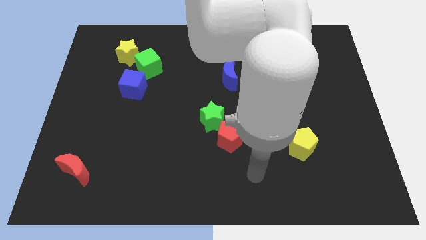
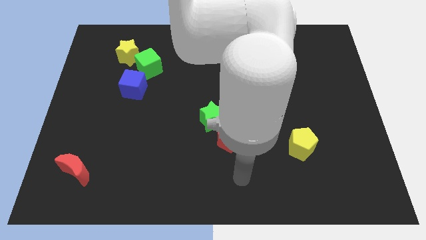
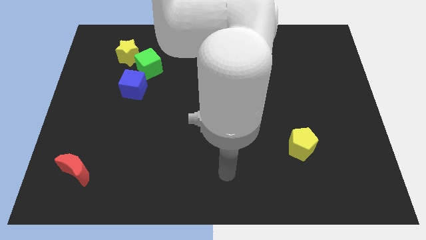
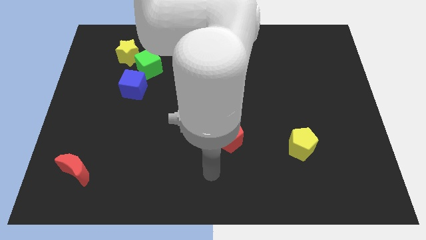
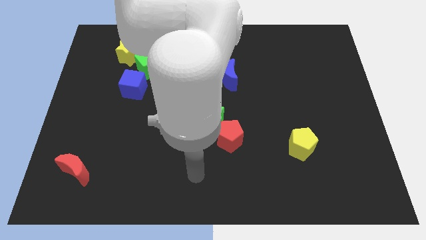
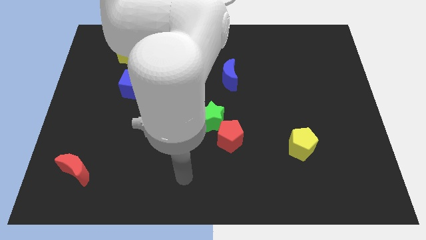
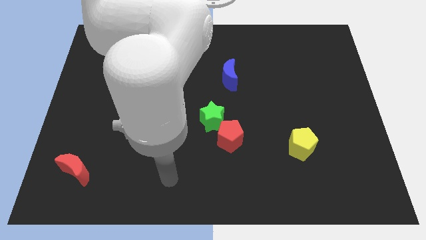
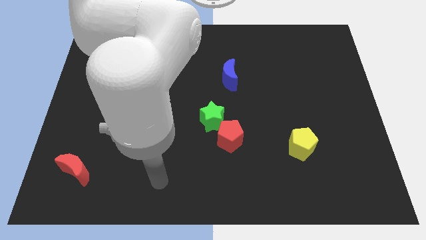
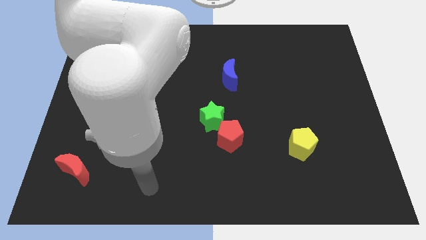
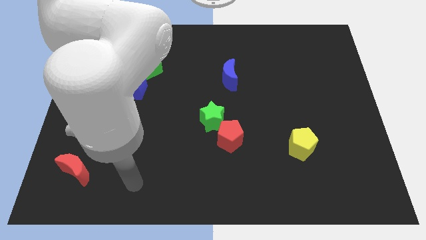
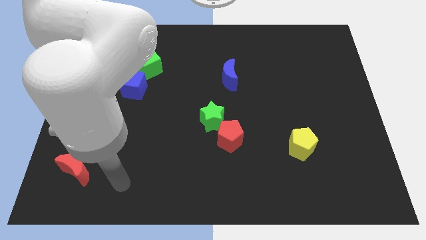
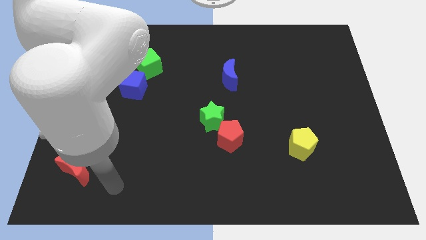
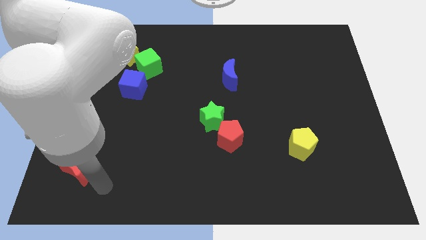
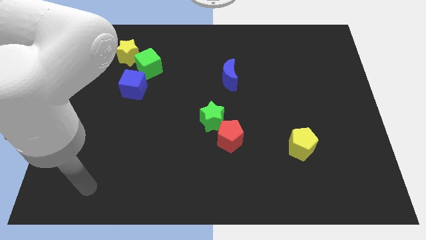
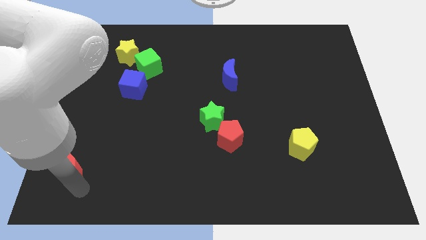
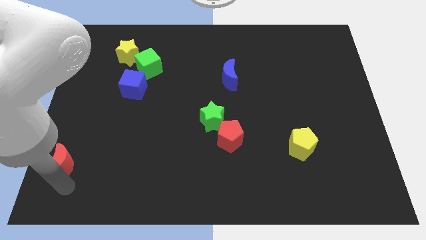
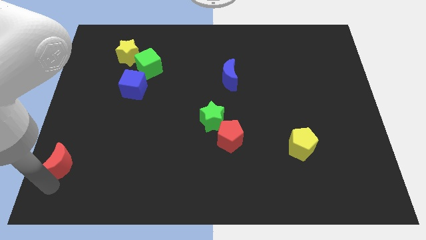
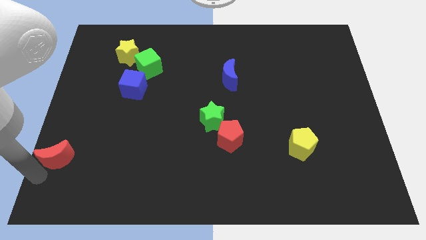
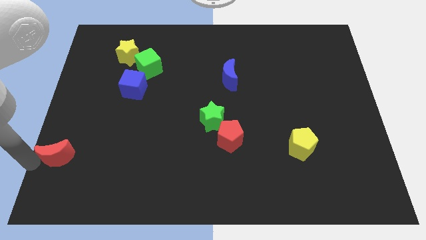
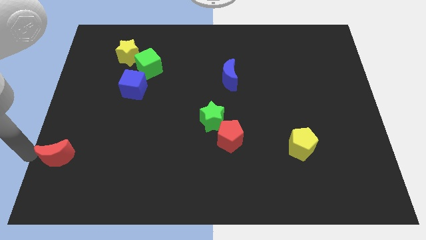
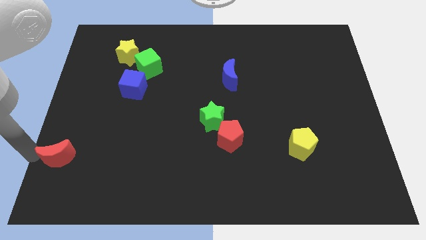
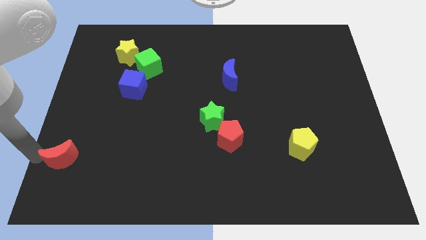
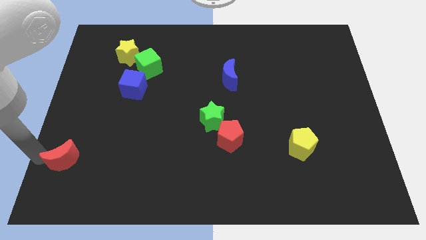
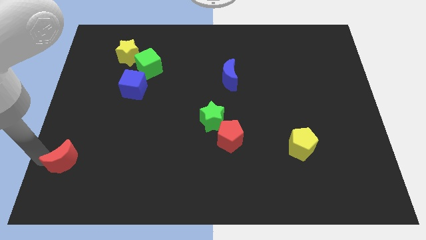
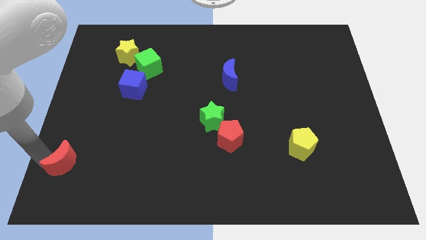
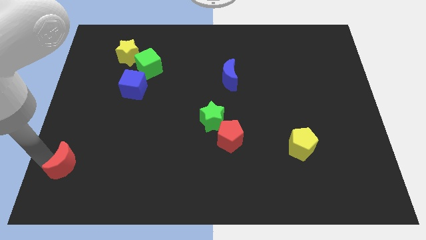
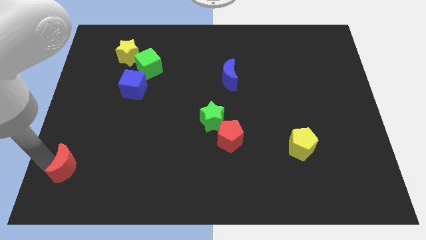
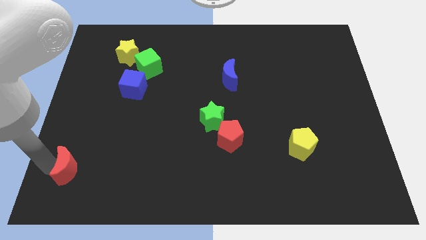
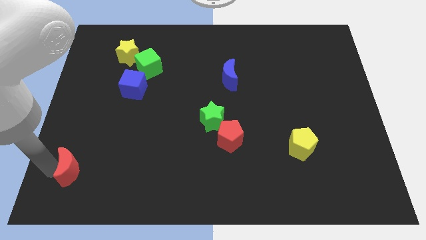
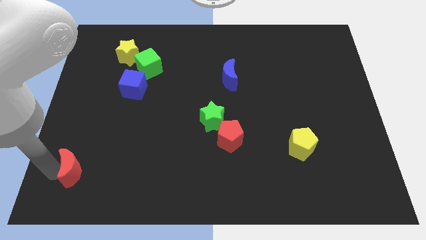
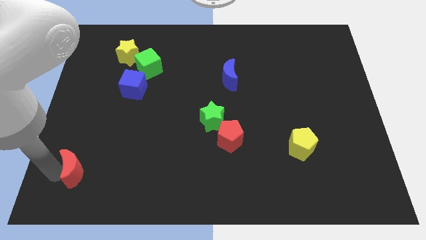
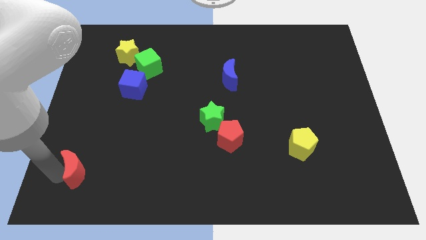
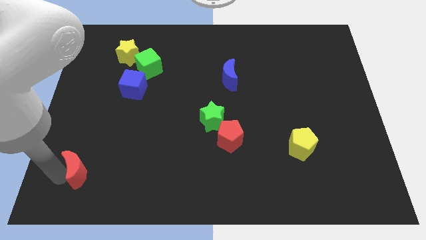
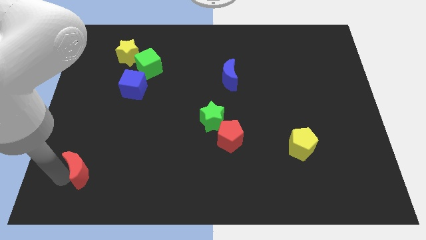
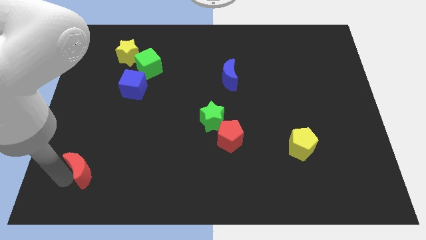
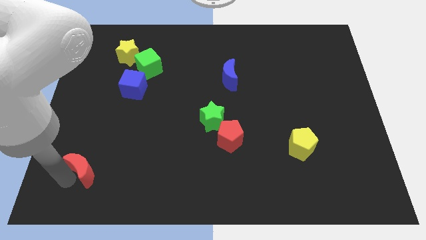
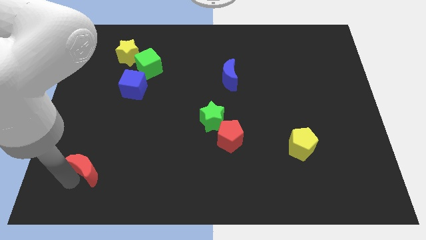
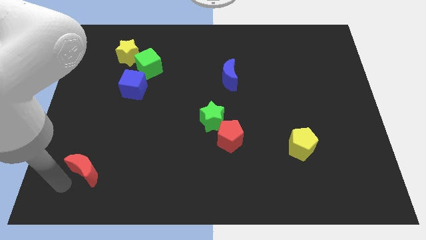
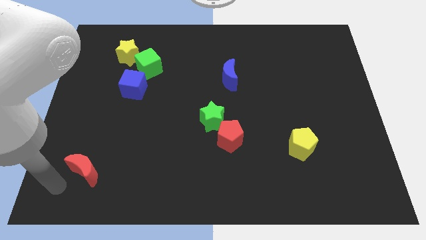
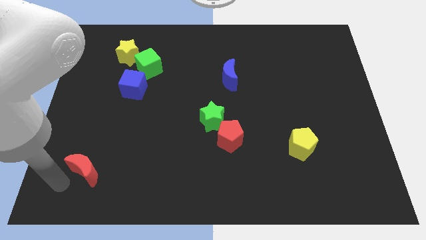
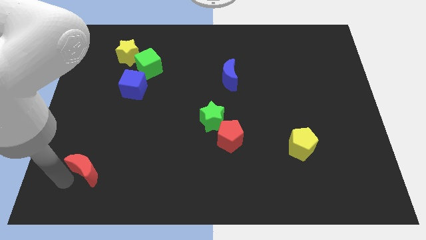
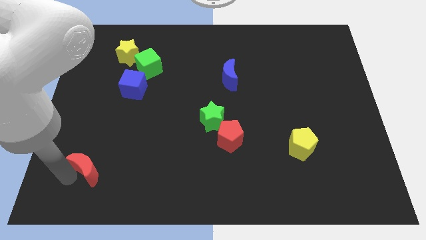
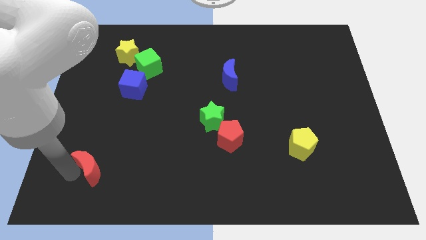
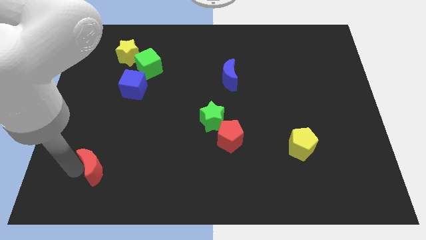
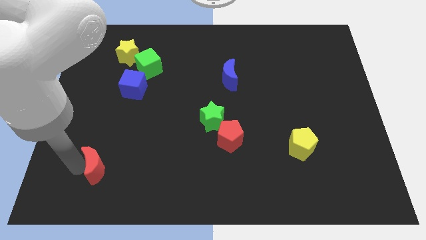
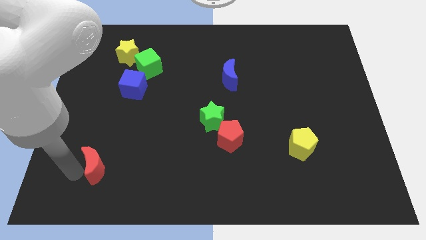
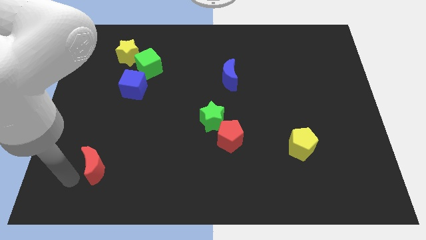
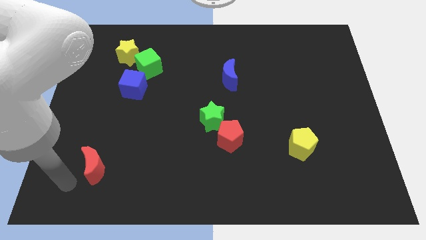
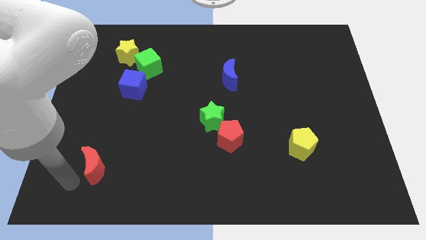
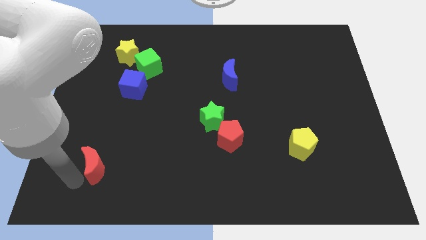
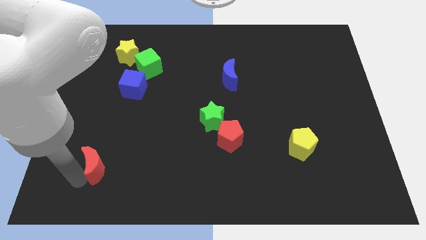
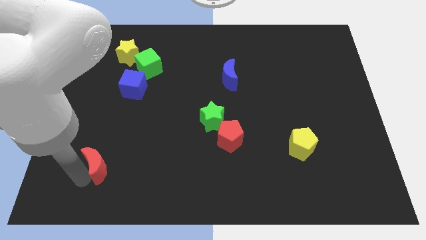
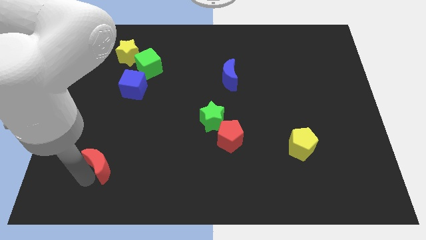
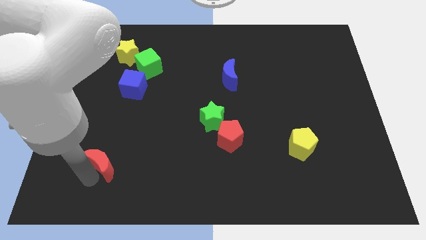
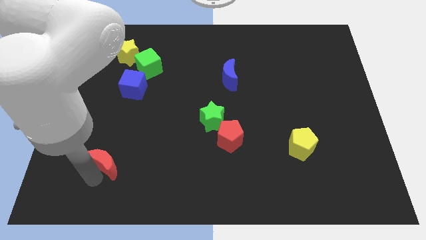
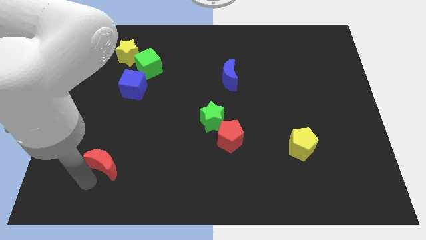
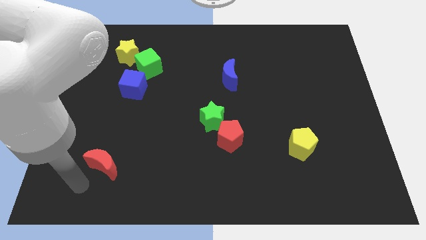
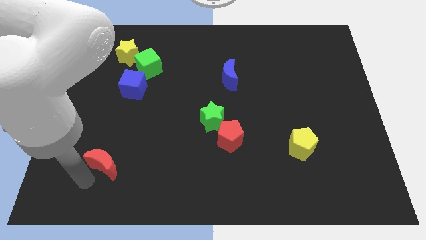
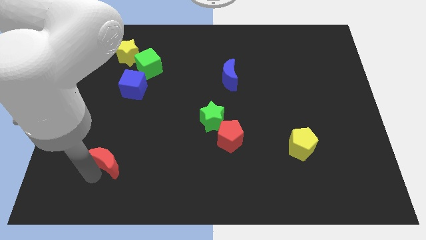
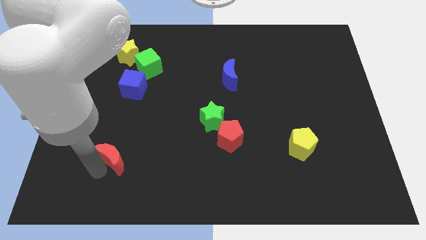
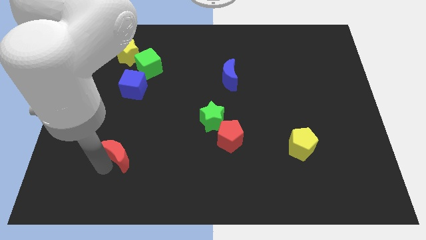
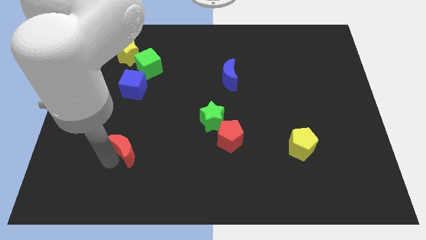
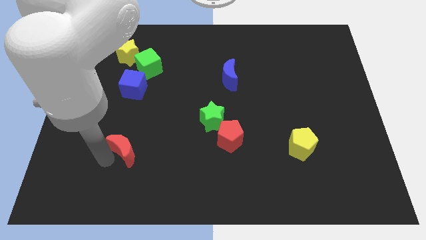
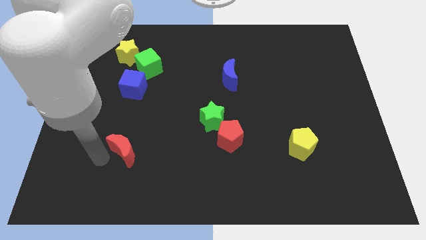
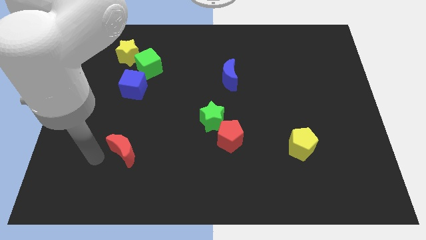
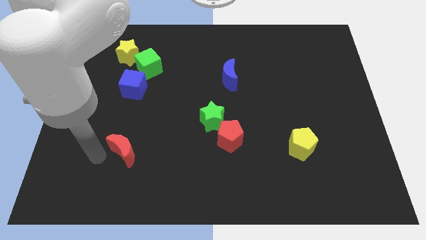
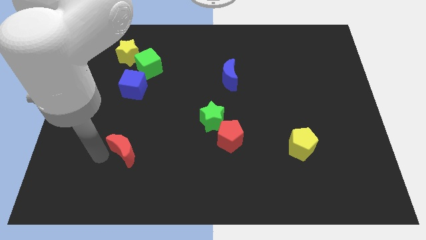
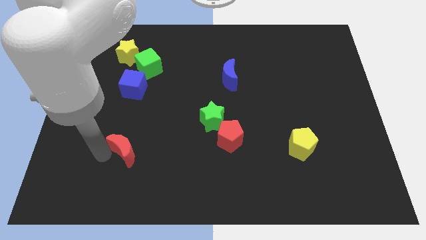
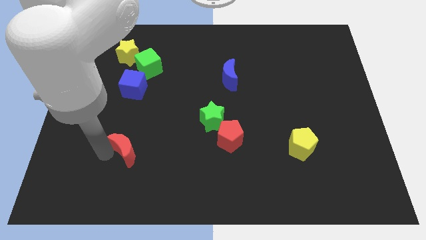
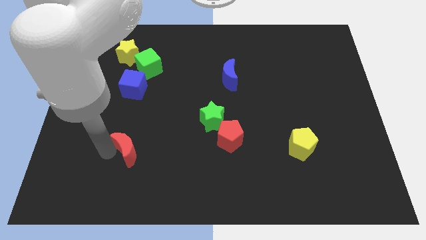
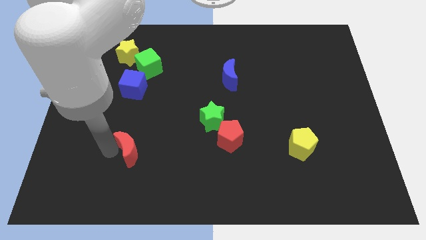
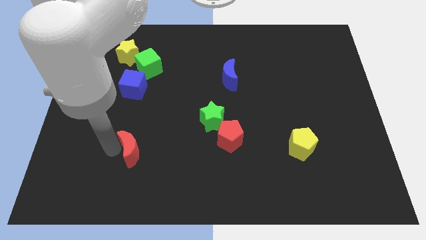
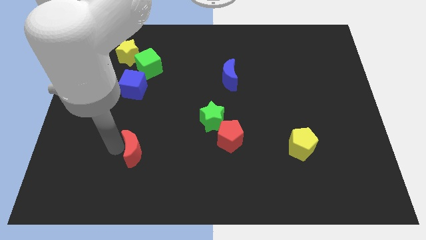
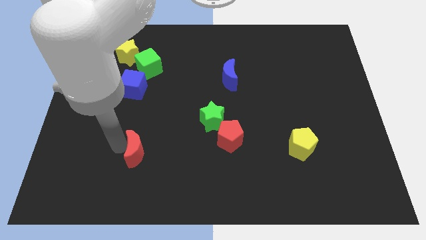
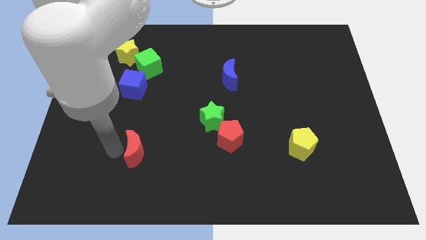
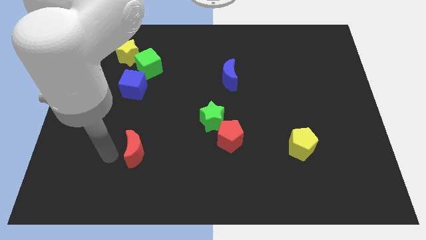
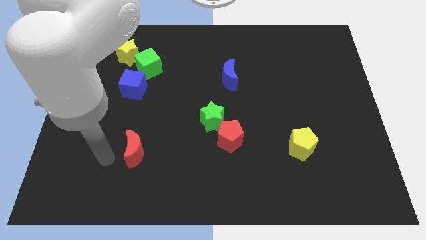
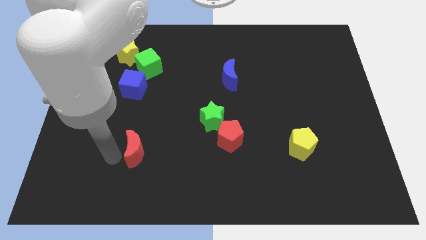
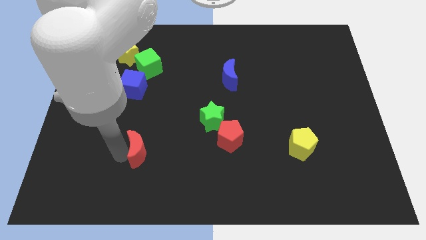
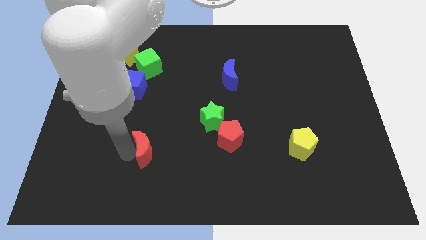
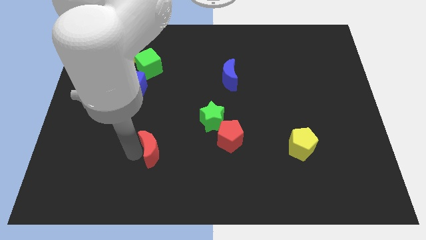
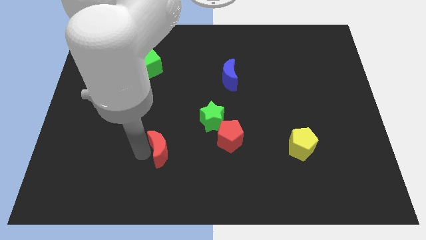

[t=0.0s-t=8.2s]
push the red moon left of the red pentagon
